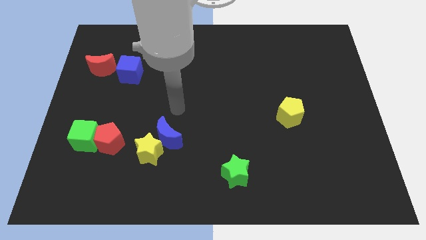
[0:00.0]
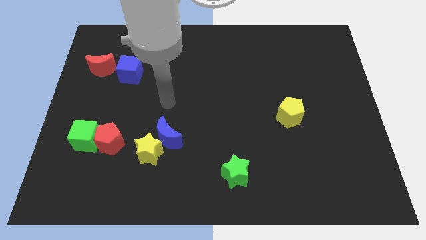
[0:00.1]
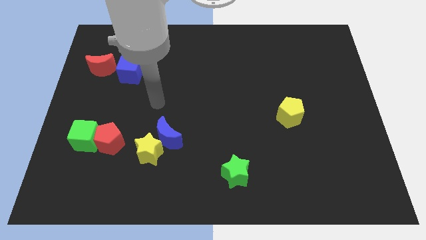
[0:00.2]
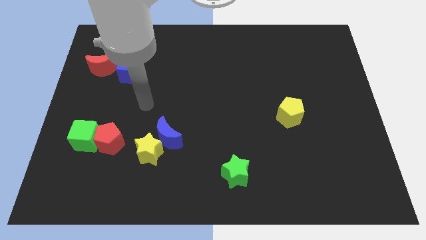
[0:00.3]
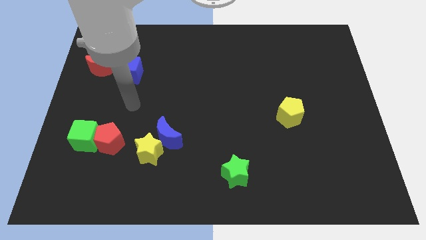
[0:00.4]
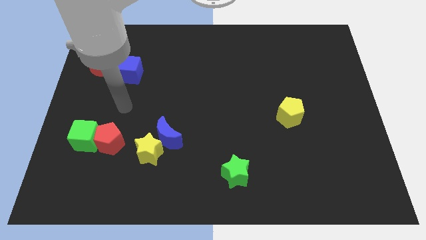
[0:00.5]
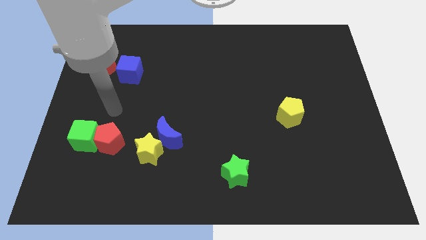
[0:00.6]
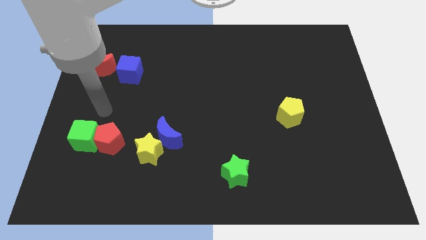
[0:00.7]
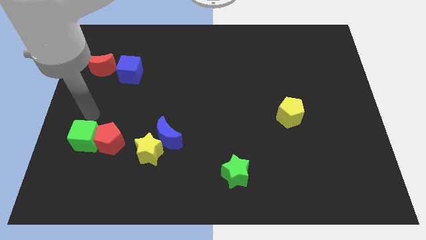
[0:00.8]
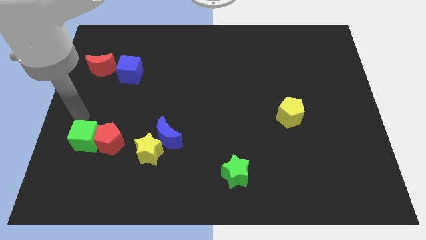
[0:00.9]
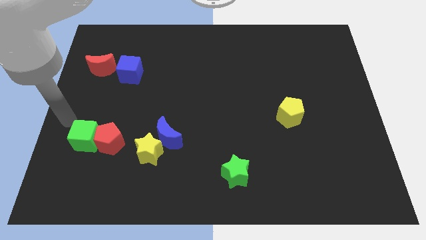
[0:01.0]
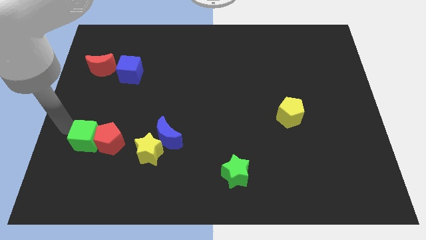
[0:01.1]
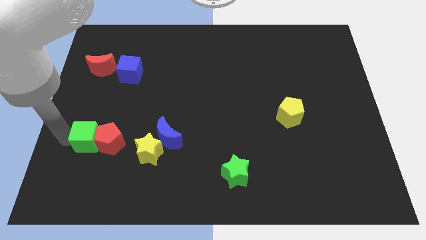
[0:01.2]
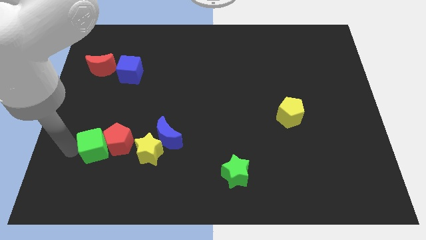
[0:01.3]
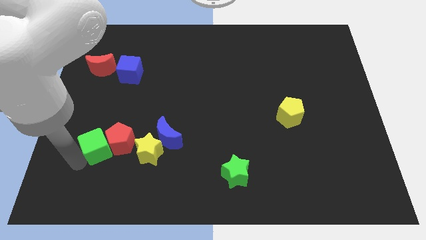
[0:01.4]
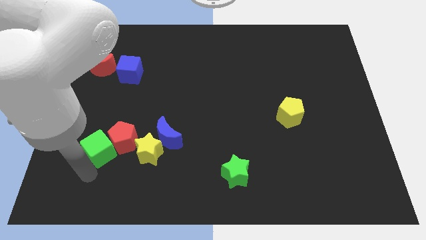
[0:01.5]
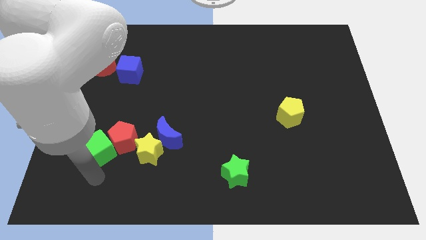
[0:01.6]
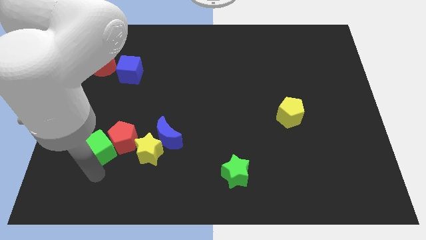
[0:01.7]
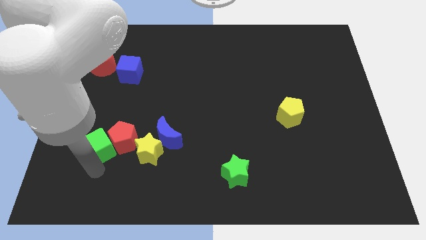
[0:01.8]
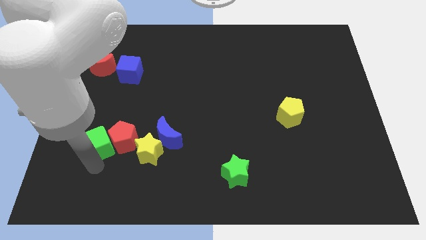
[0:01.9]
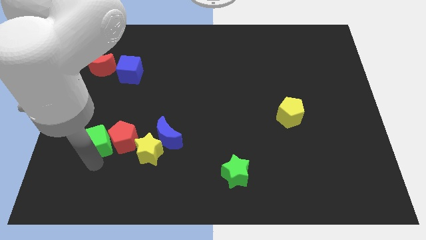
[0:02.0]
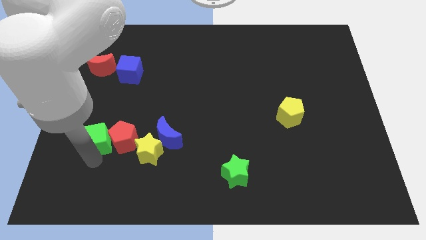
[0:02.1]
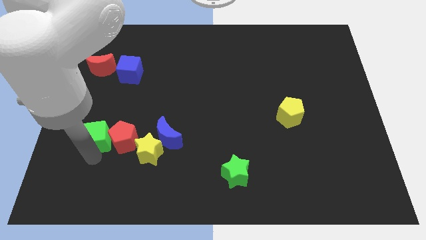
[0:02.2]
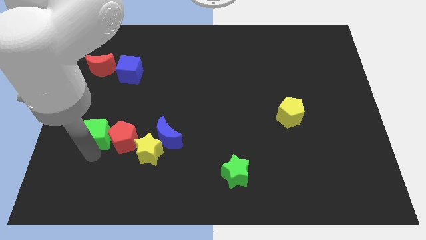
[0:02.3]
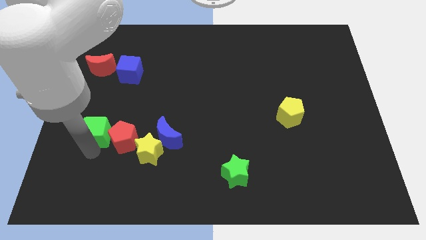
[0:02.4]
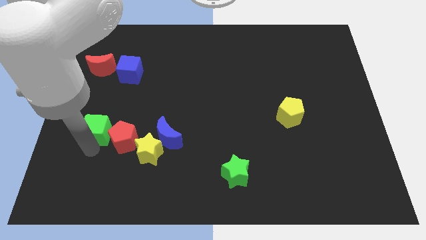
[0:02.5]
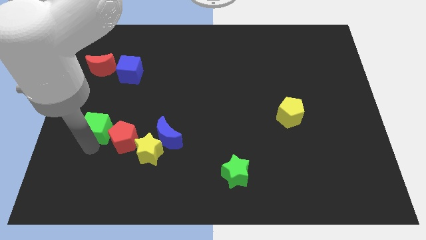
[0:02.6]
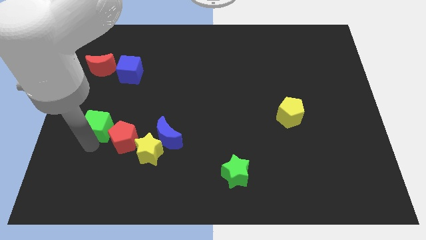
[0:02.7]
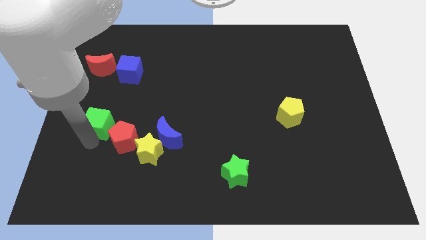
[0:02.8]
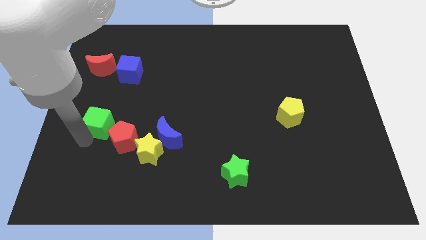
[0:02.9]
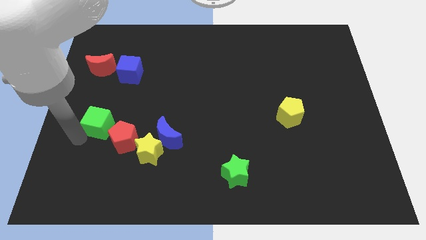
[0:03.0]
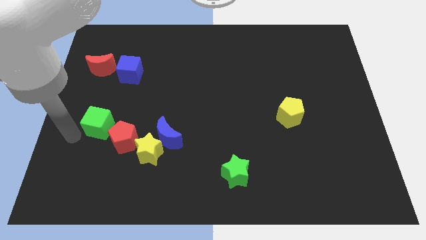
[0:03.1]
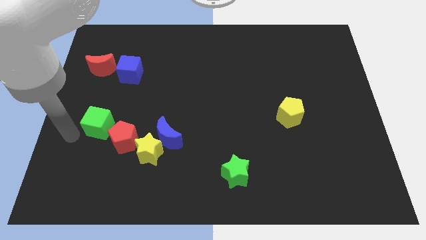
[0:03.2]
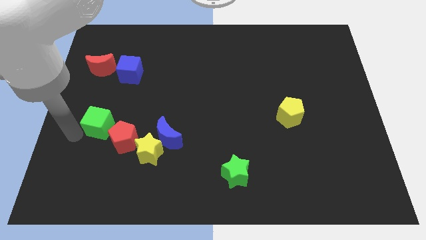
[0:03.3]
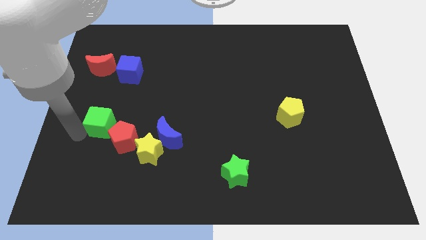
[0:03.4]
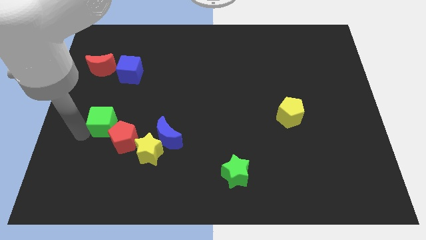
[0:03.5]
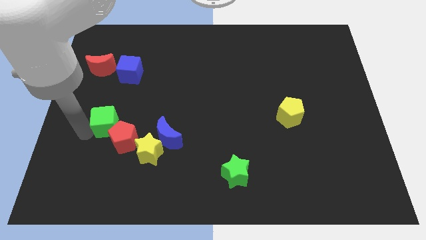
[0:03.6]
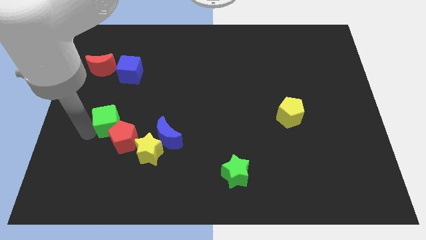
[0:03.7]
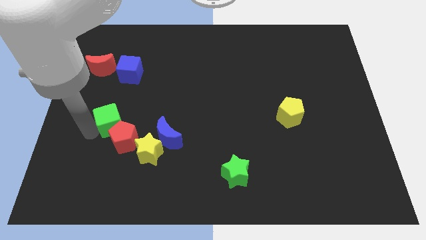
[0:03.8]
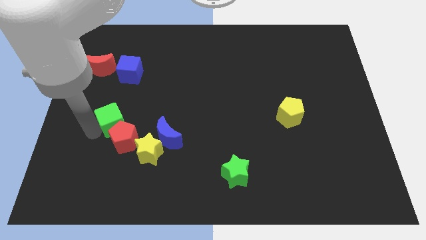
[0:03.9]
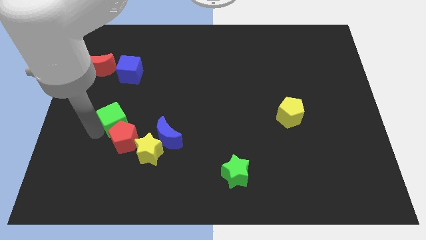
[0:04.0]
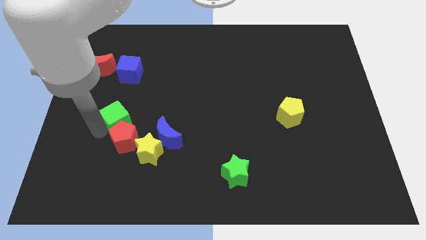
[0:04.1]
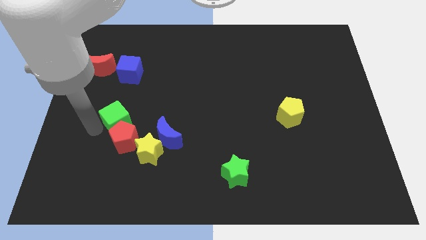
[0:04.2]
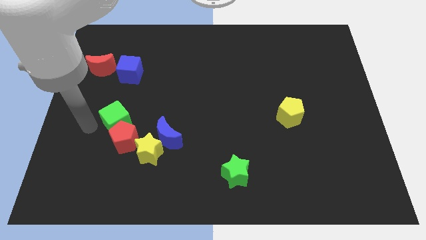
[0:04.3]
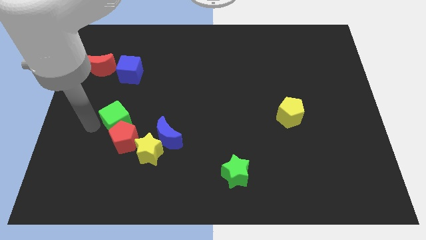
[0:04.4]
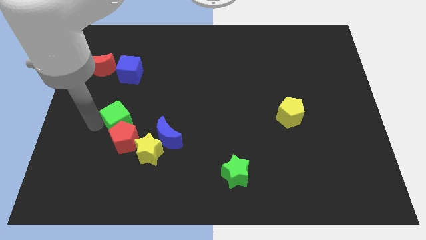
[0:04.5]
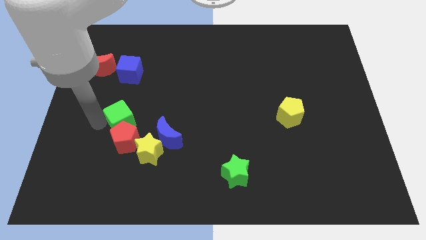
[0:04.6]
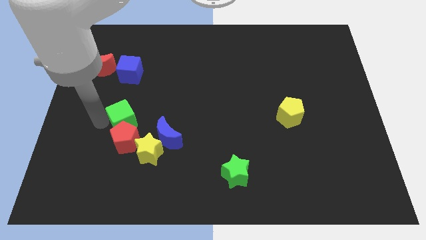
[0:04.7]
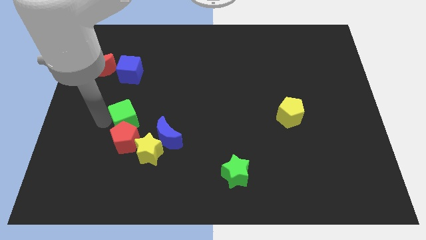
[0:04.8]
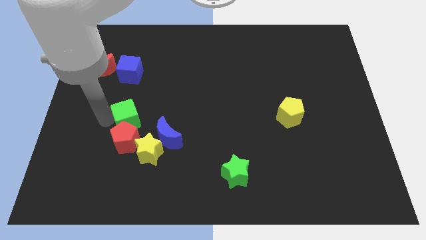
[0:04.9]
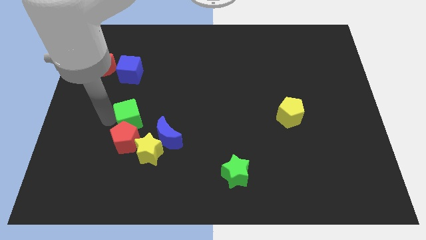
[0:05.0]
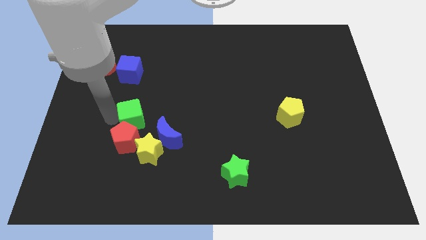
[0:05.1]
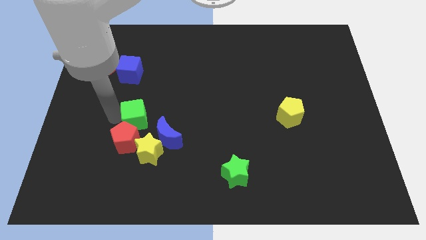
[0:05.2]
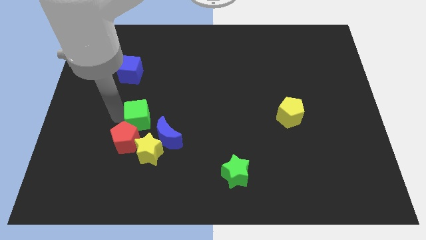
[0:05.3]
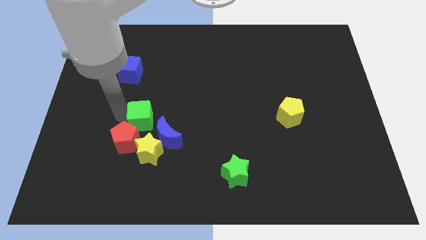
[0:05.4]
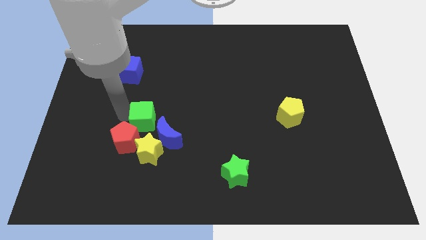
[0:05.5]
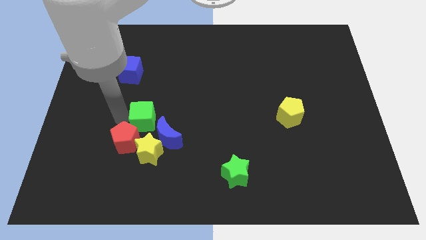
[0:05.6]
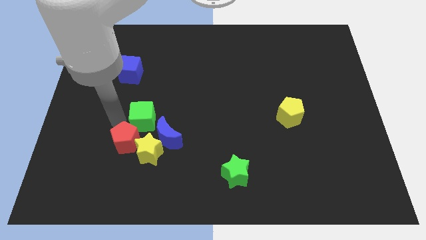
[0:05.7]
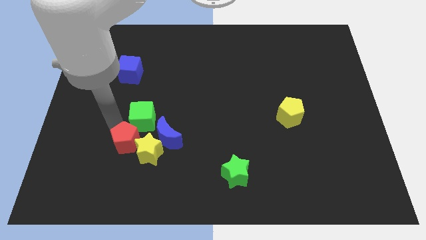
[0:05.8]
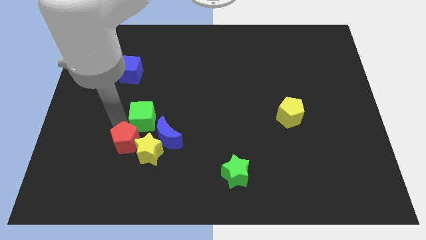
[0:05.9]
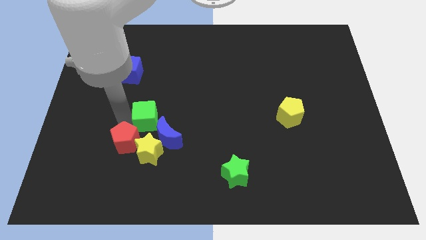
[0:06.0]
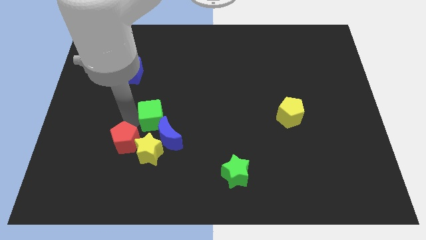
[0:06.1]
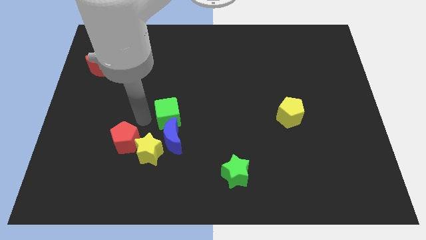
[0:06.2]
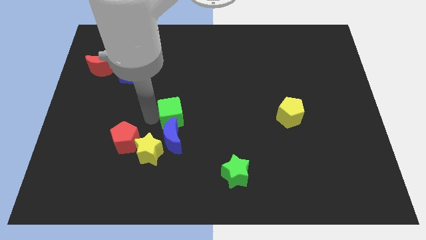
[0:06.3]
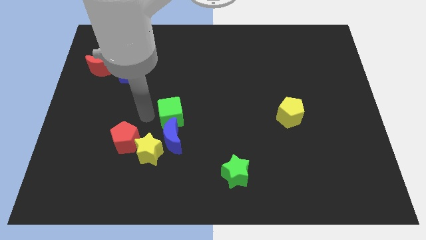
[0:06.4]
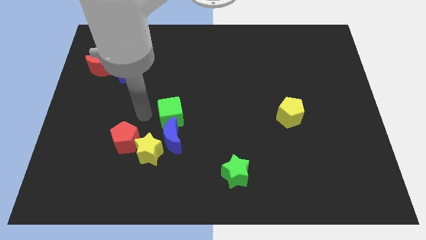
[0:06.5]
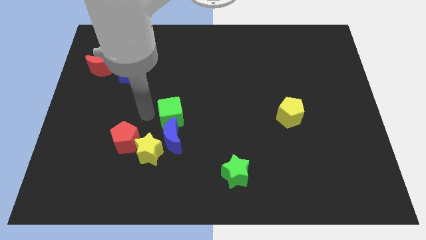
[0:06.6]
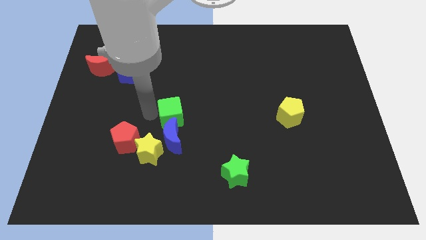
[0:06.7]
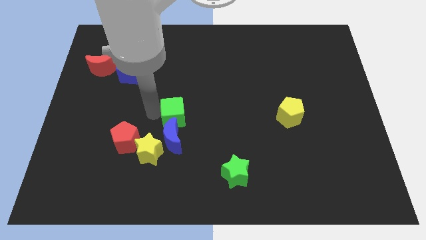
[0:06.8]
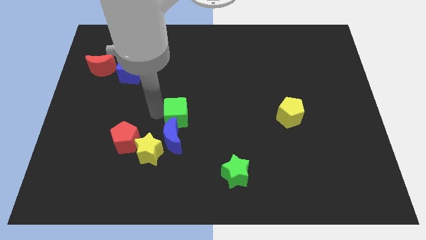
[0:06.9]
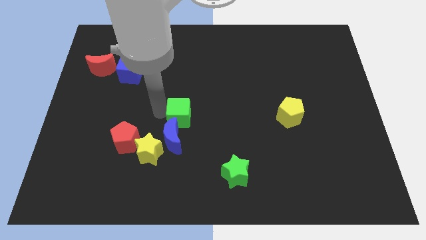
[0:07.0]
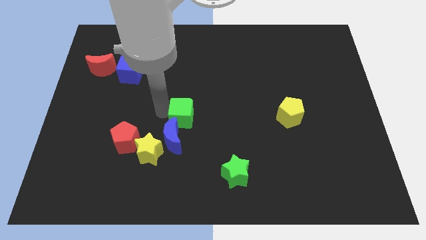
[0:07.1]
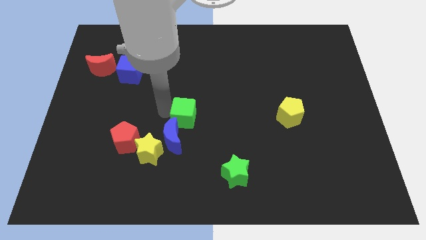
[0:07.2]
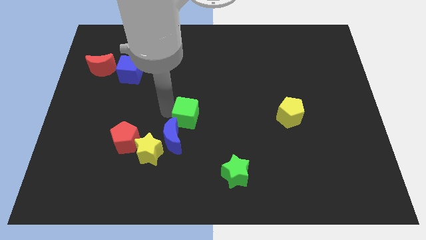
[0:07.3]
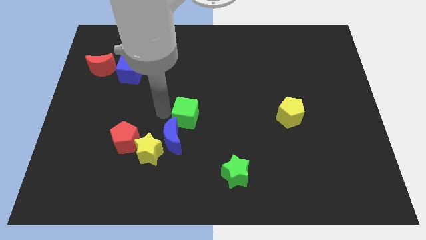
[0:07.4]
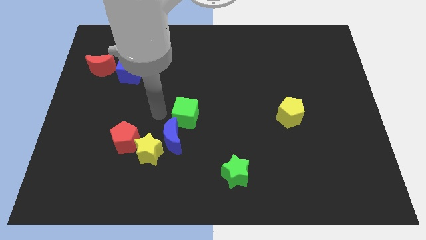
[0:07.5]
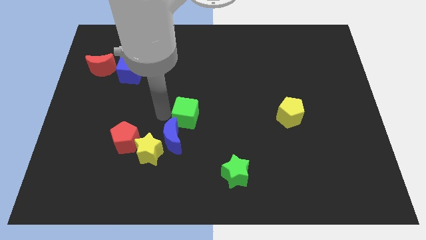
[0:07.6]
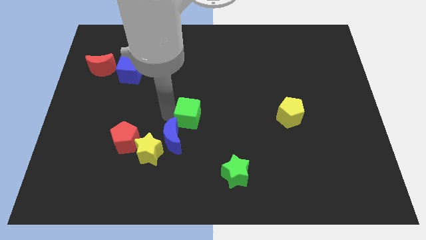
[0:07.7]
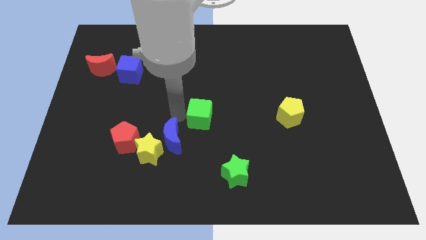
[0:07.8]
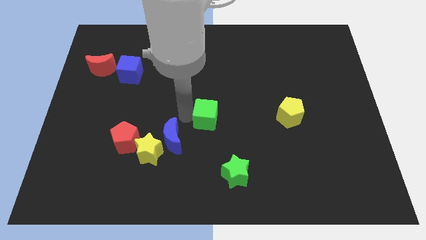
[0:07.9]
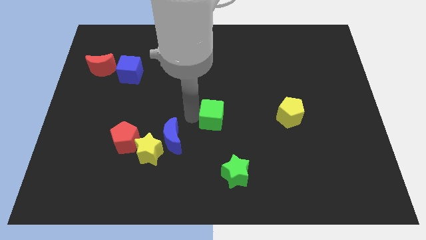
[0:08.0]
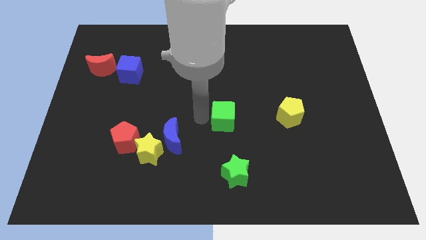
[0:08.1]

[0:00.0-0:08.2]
move the green cube left of the yellow pentagon
